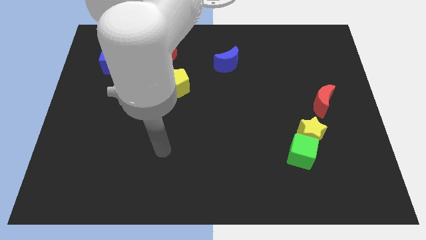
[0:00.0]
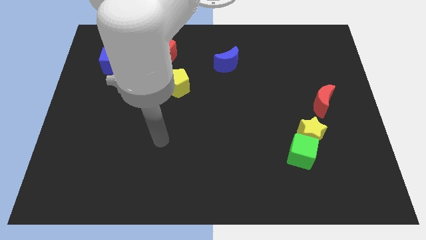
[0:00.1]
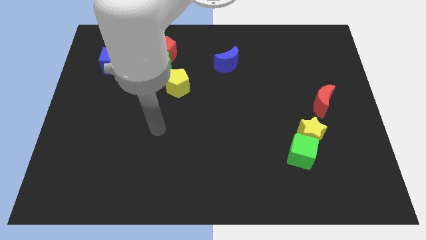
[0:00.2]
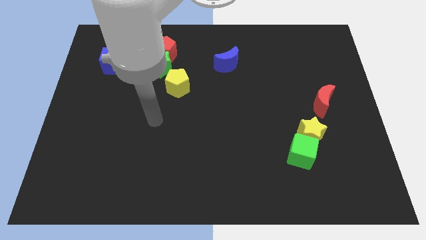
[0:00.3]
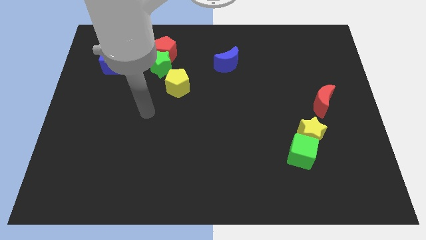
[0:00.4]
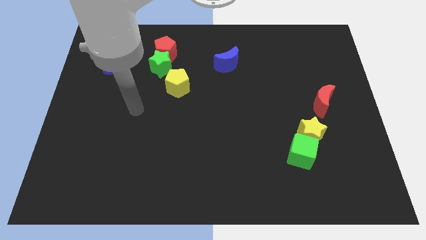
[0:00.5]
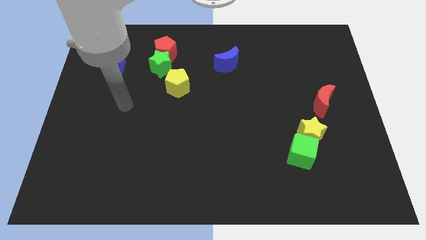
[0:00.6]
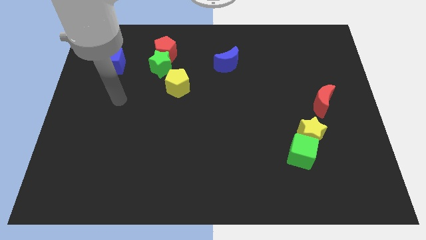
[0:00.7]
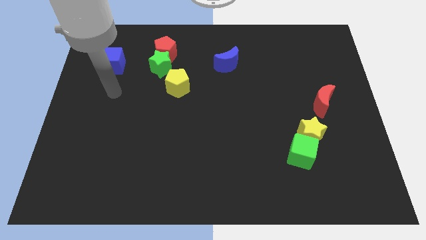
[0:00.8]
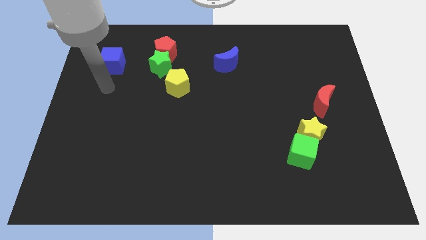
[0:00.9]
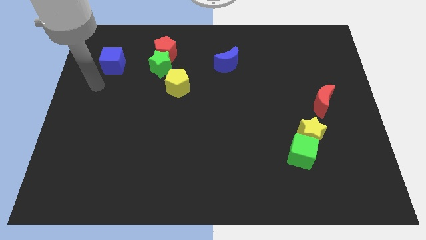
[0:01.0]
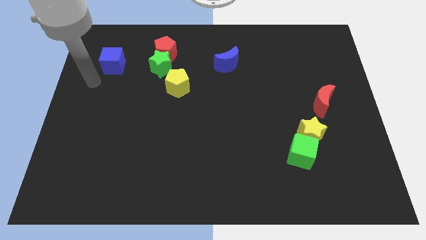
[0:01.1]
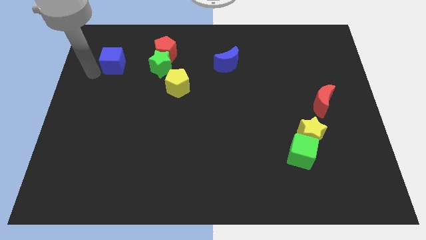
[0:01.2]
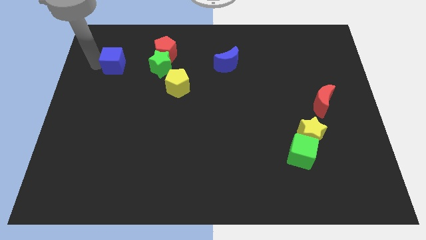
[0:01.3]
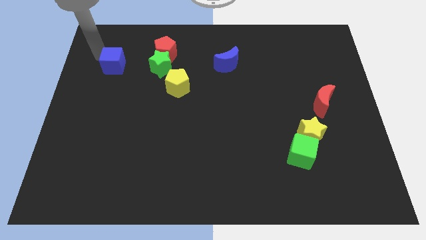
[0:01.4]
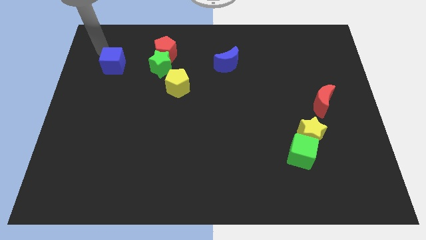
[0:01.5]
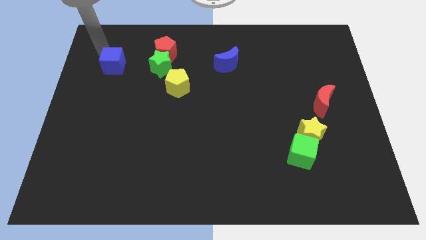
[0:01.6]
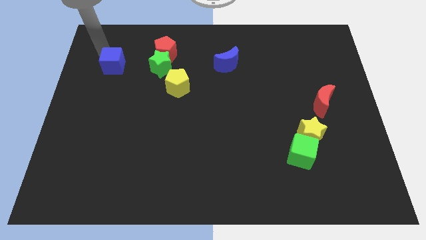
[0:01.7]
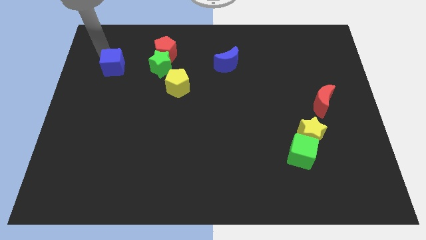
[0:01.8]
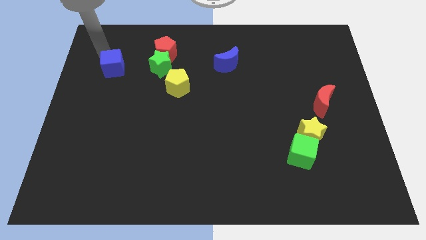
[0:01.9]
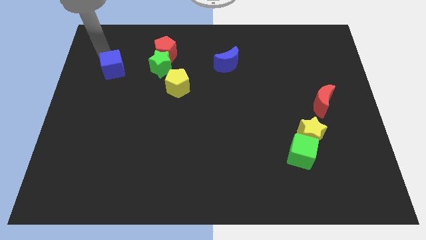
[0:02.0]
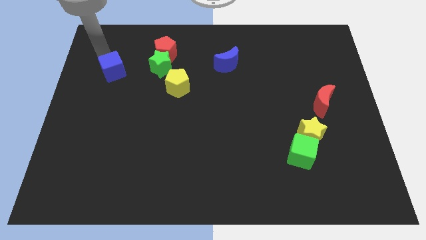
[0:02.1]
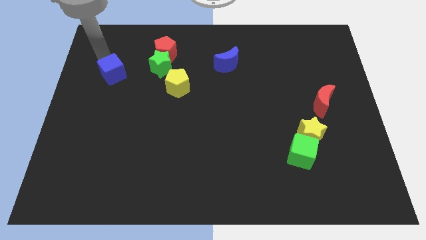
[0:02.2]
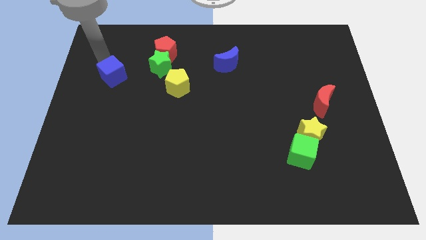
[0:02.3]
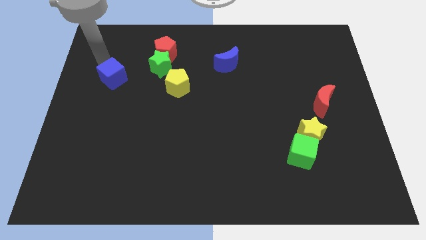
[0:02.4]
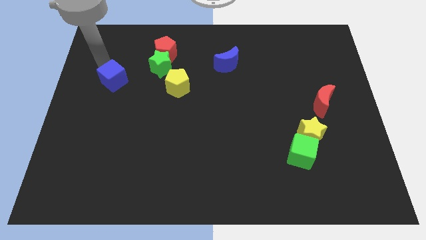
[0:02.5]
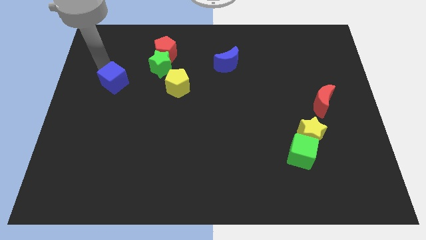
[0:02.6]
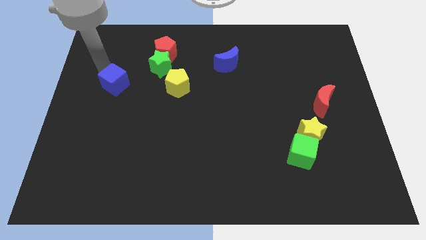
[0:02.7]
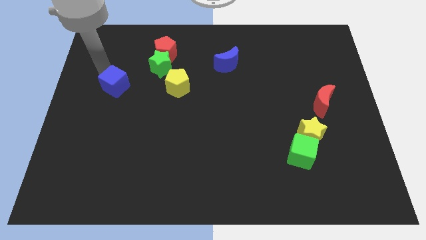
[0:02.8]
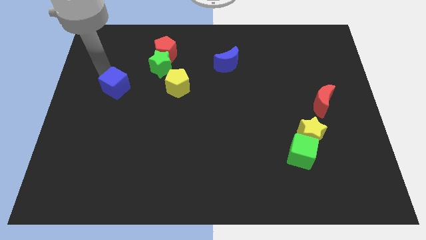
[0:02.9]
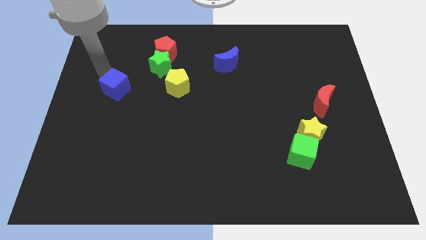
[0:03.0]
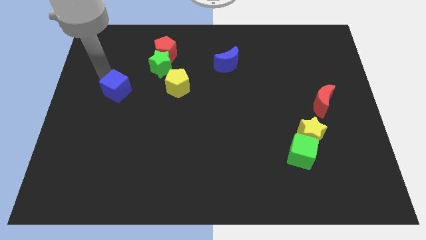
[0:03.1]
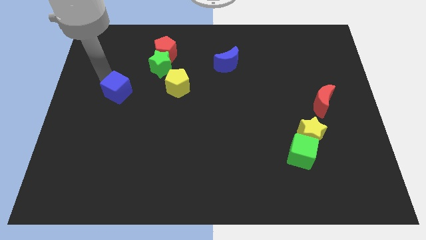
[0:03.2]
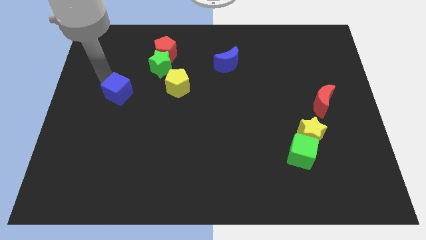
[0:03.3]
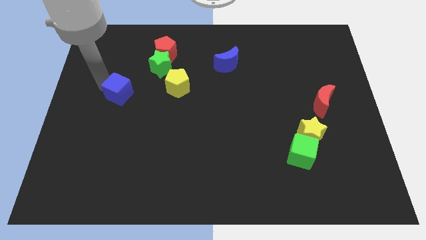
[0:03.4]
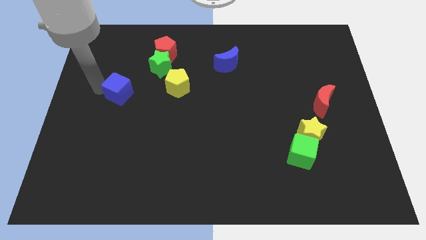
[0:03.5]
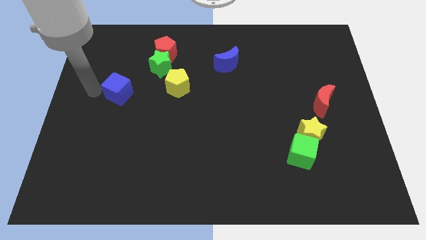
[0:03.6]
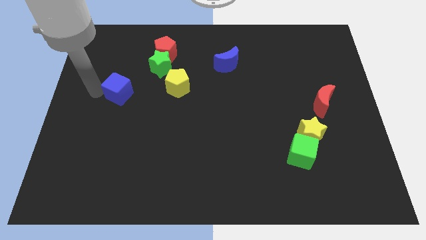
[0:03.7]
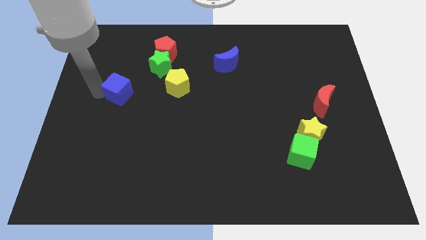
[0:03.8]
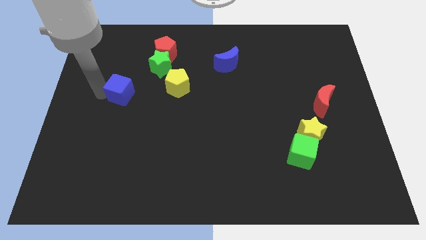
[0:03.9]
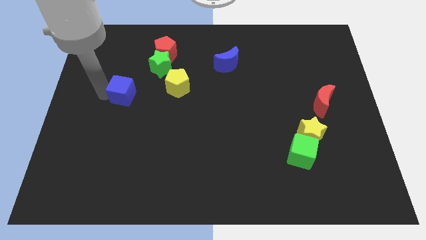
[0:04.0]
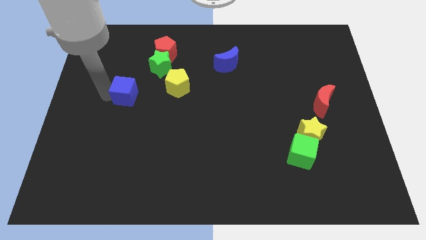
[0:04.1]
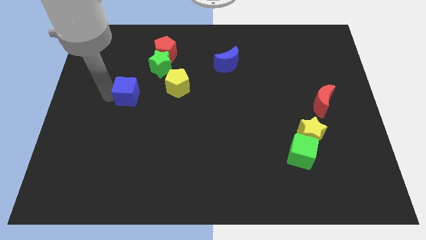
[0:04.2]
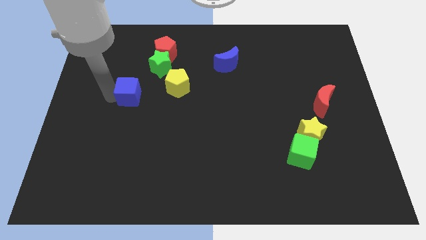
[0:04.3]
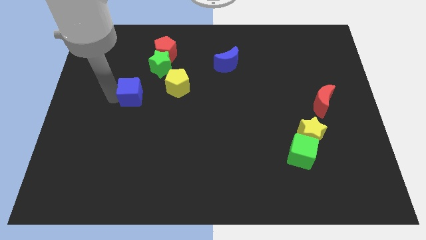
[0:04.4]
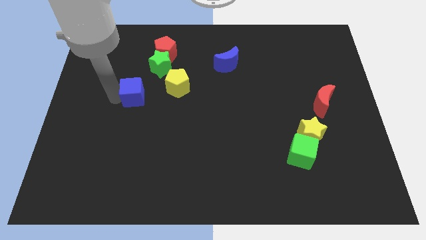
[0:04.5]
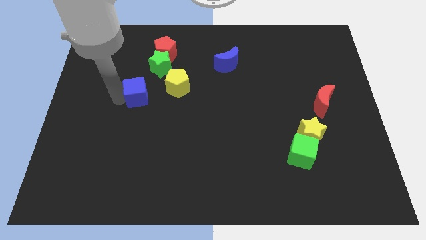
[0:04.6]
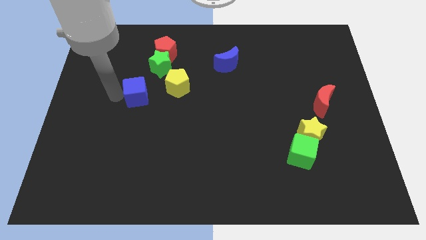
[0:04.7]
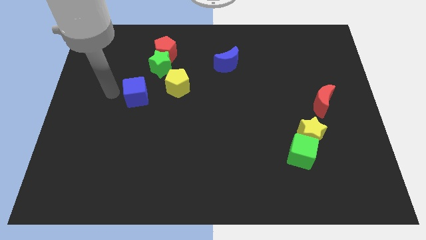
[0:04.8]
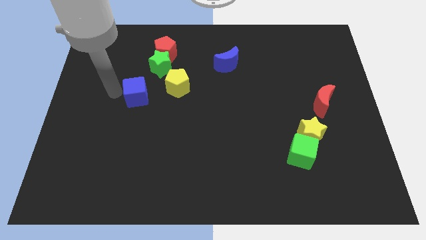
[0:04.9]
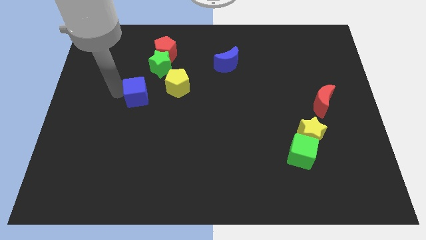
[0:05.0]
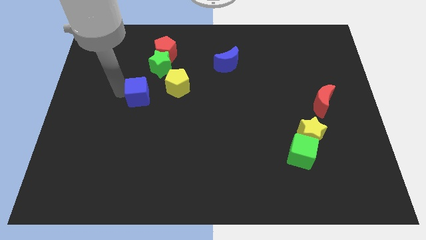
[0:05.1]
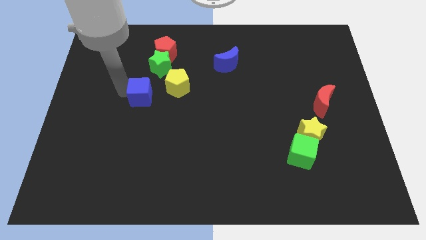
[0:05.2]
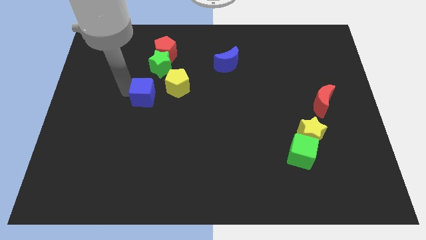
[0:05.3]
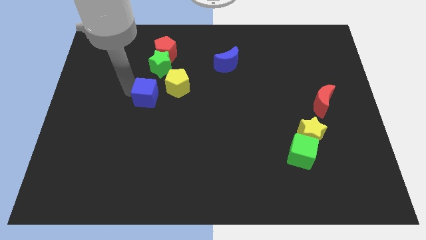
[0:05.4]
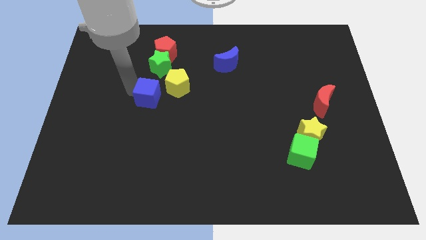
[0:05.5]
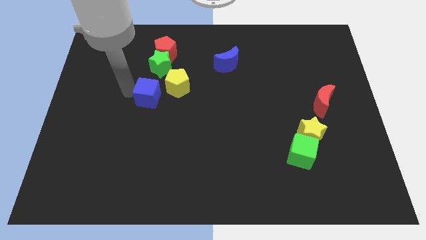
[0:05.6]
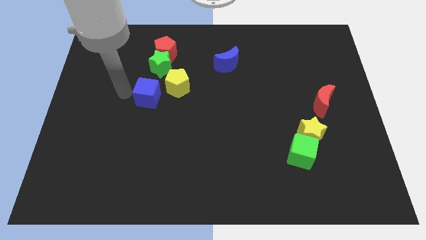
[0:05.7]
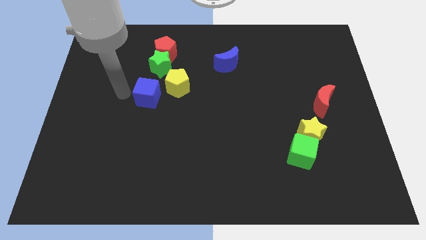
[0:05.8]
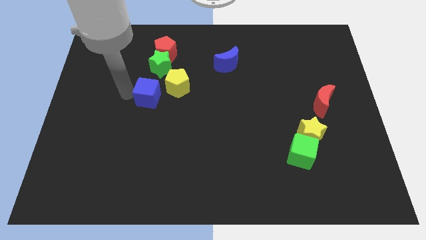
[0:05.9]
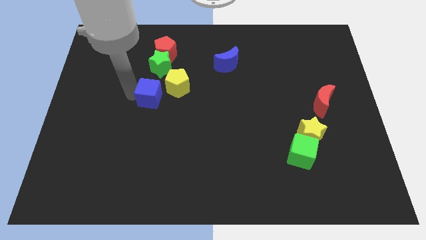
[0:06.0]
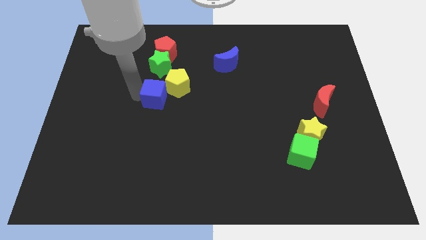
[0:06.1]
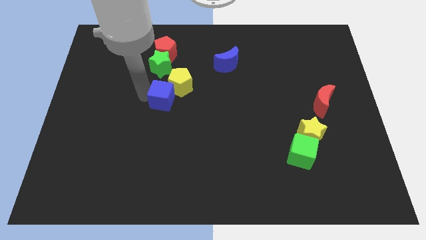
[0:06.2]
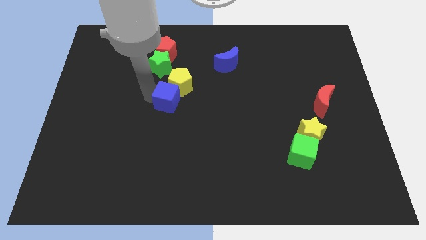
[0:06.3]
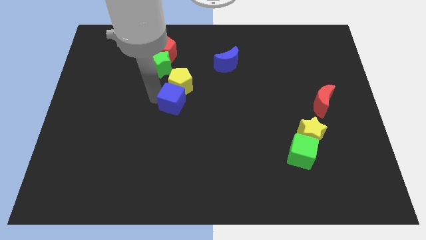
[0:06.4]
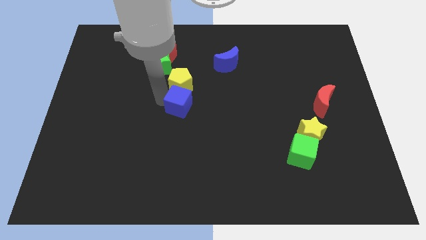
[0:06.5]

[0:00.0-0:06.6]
slide the blue cube to the bottom right of the yellow pentagon
